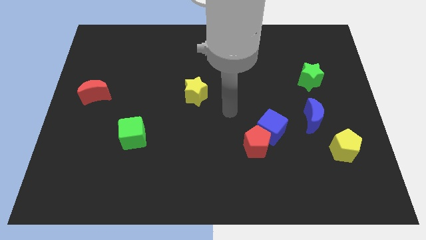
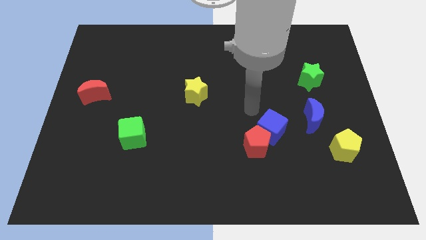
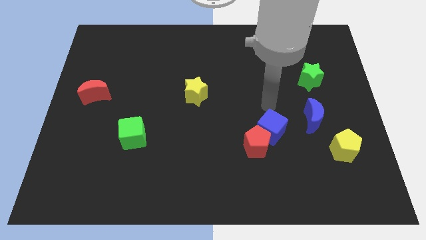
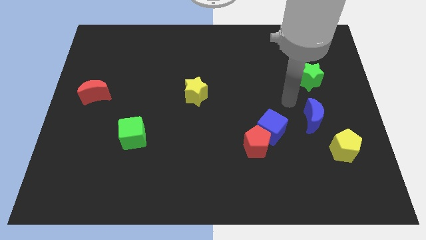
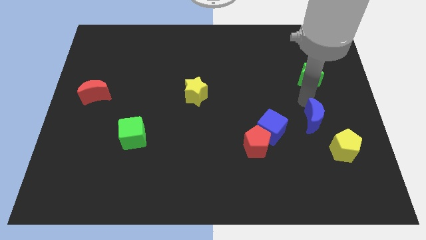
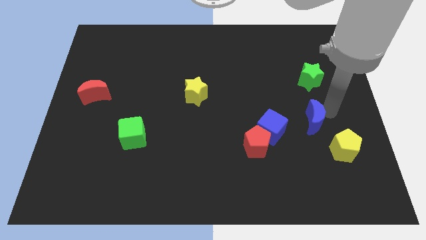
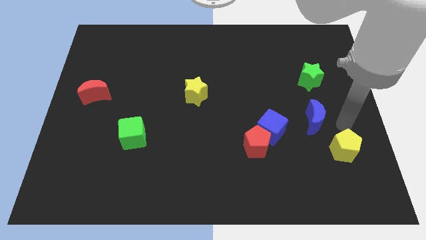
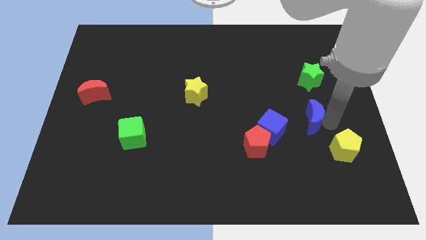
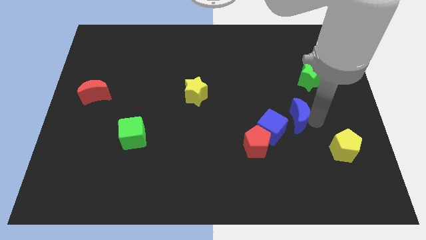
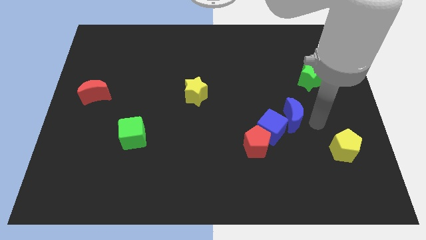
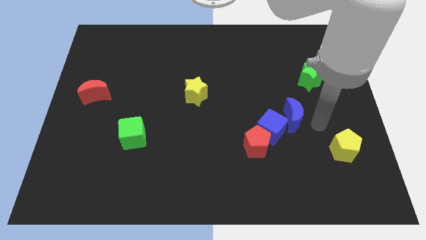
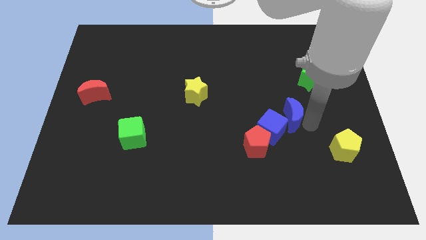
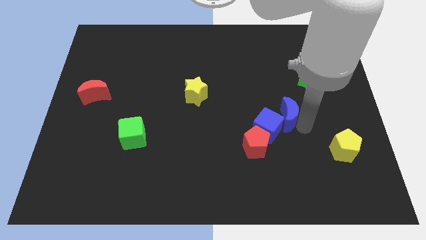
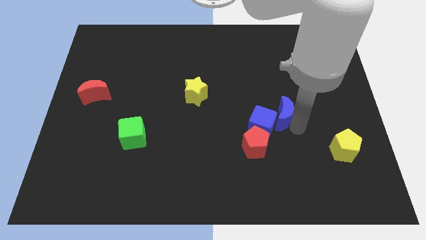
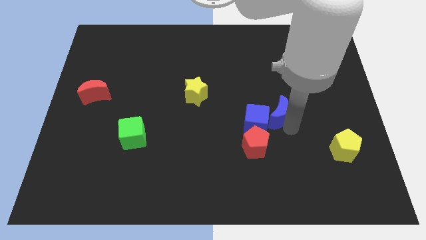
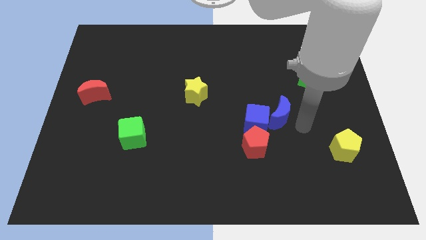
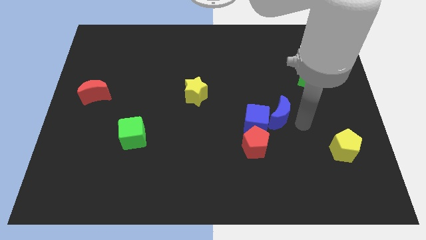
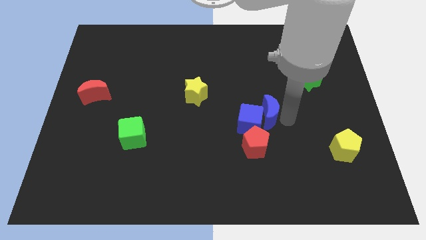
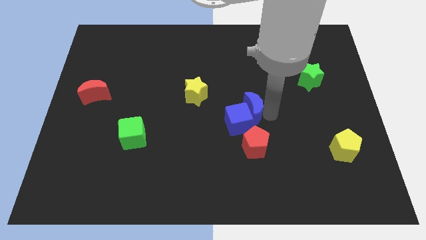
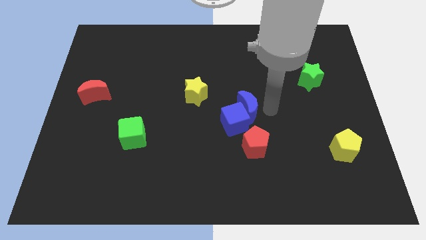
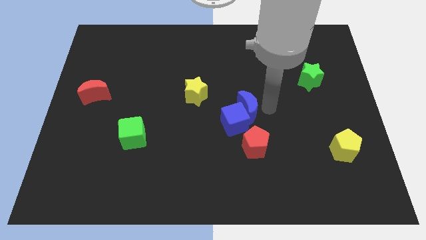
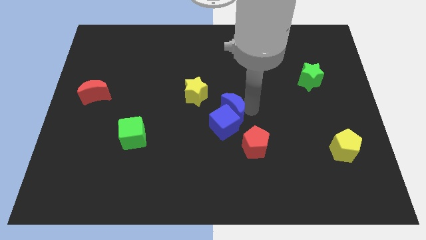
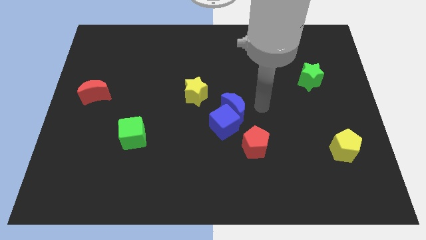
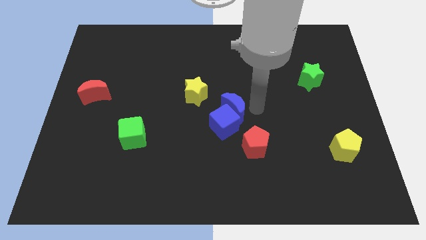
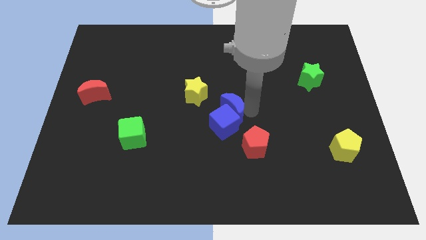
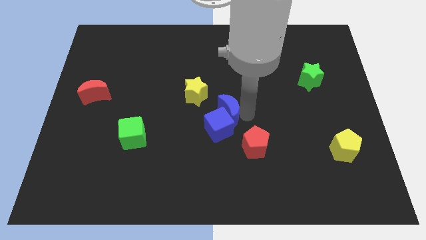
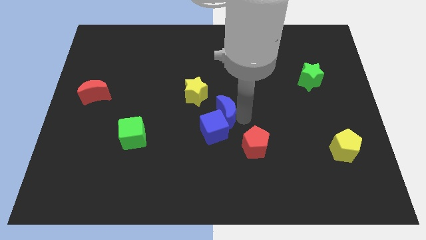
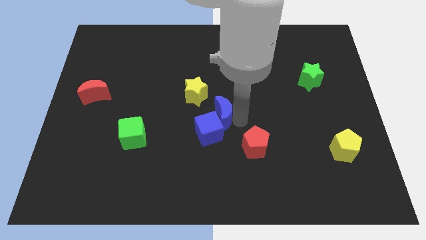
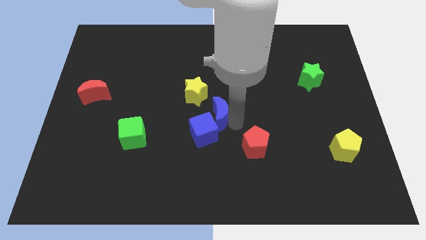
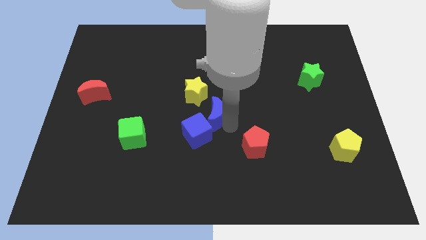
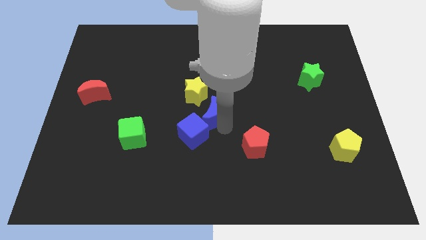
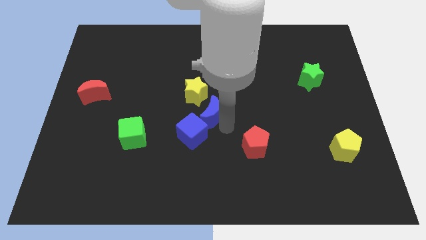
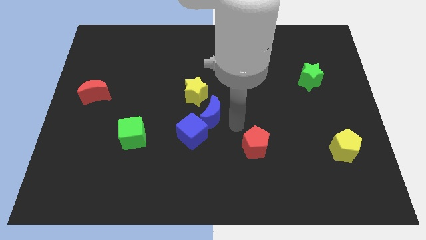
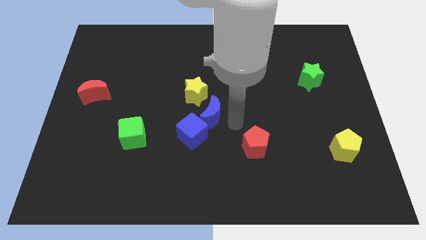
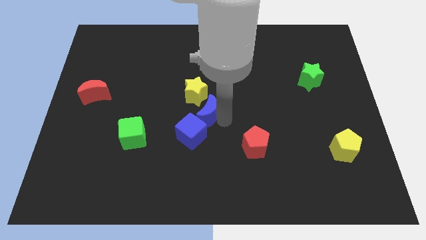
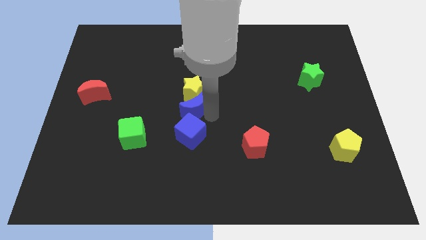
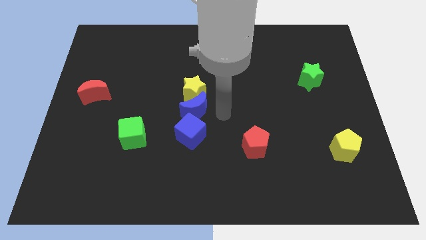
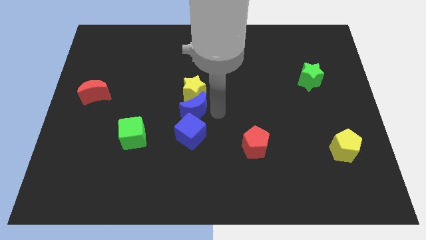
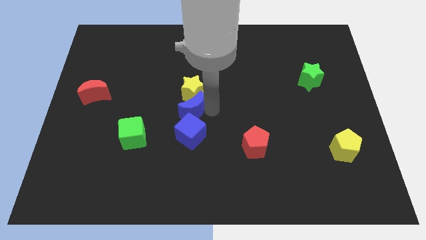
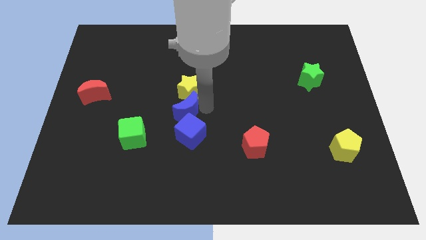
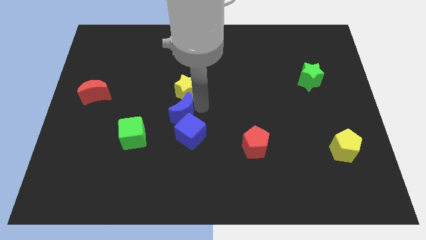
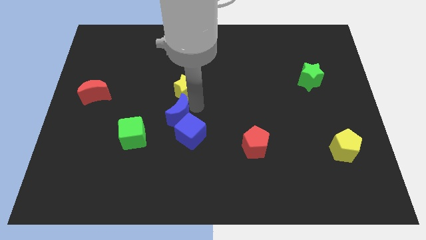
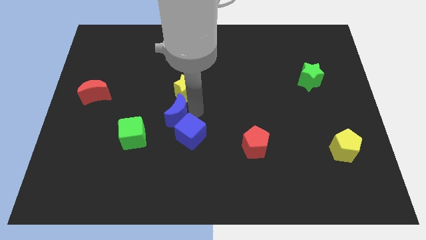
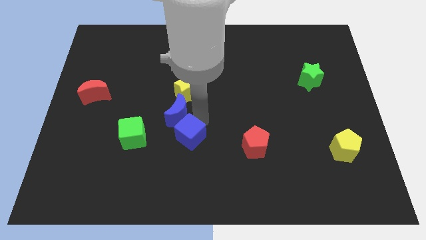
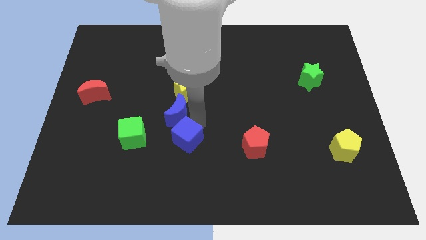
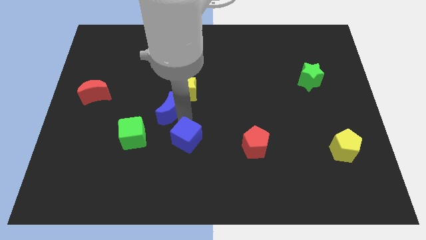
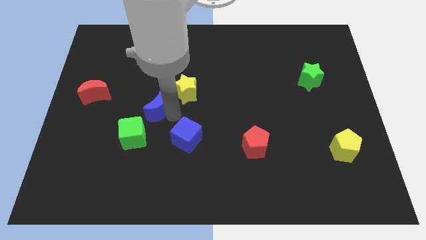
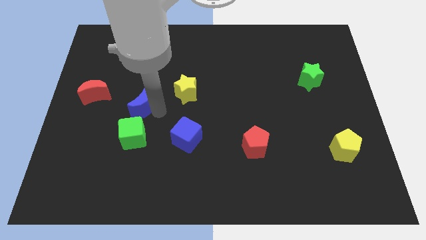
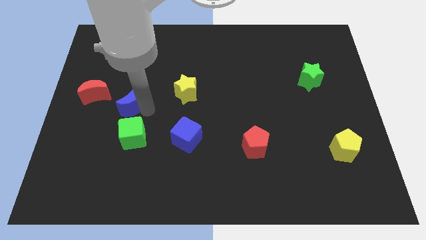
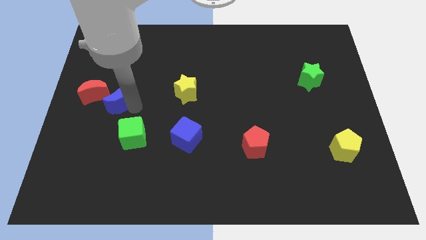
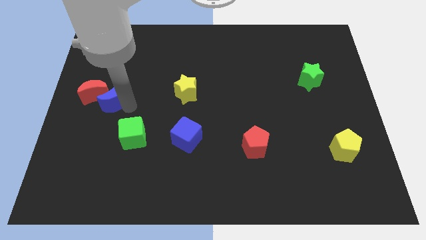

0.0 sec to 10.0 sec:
move the blue moon towards the red moon

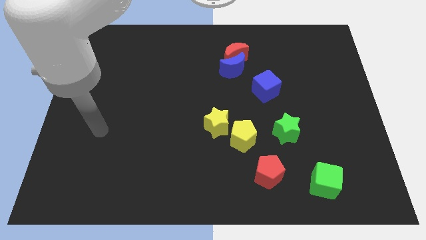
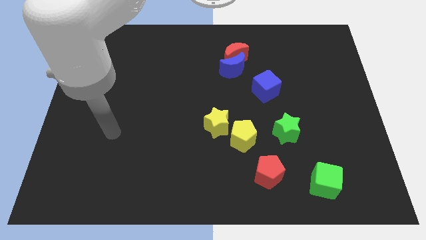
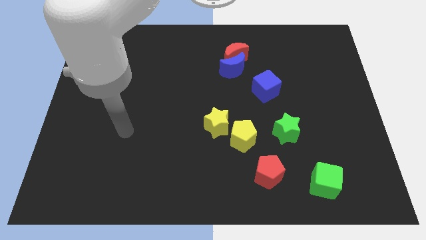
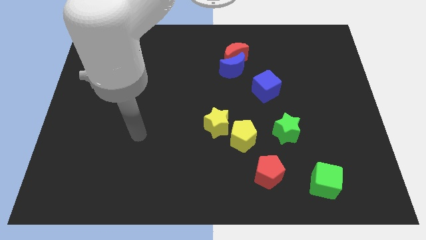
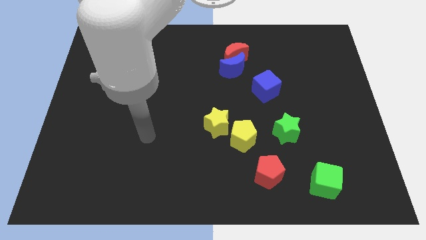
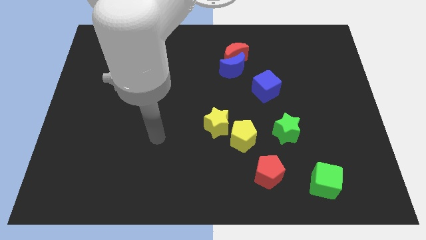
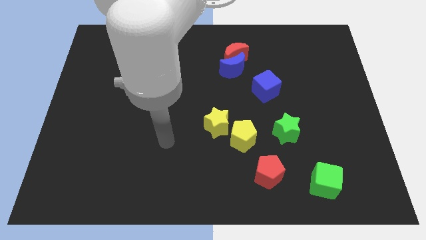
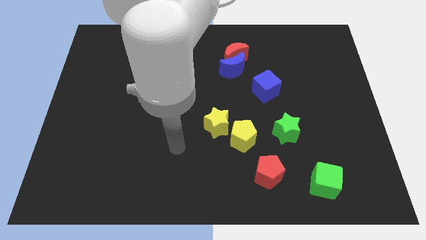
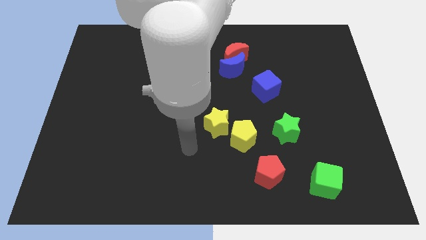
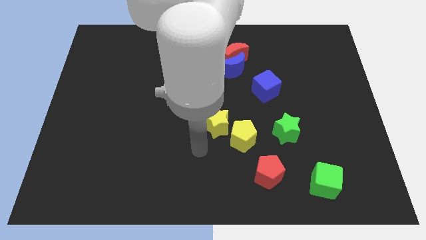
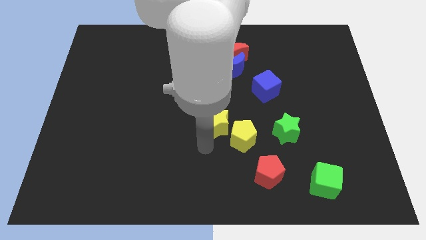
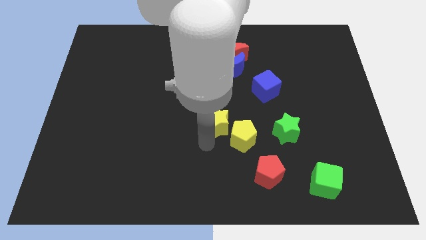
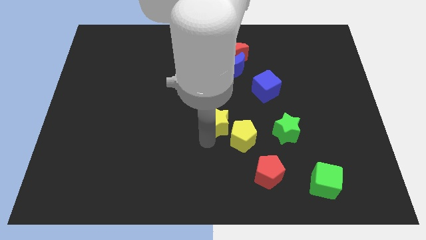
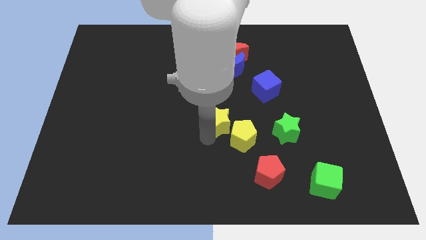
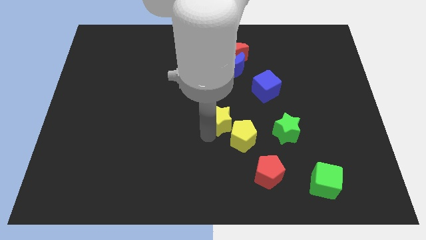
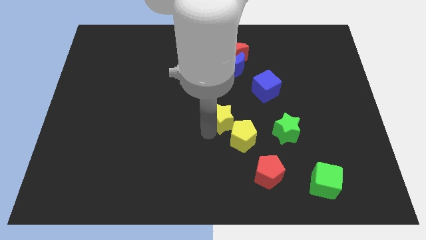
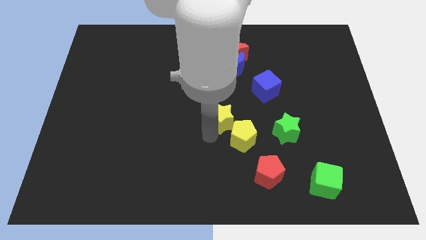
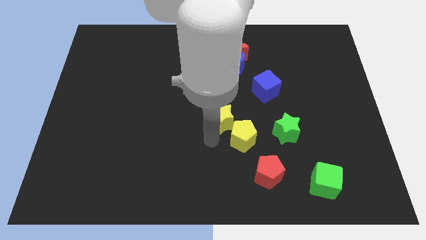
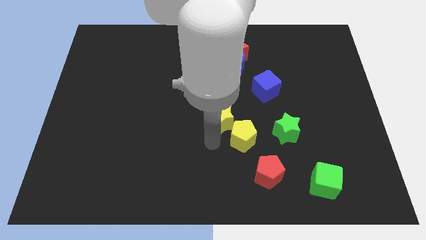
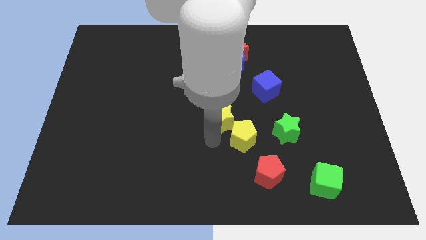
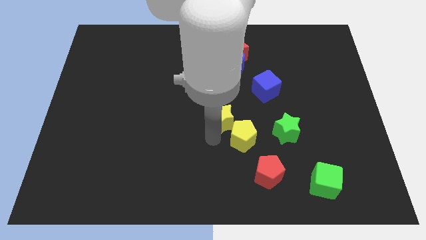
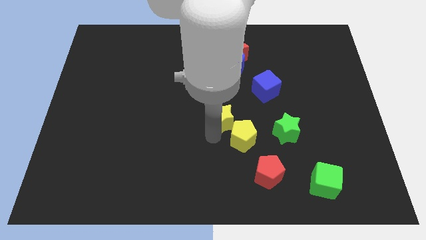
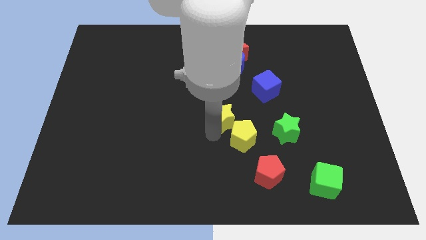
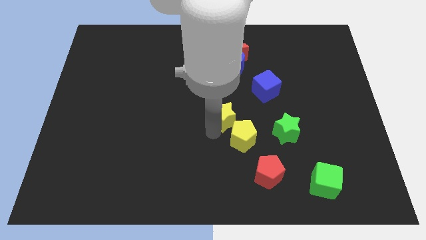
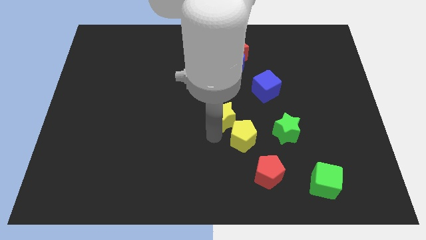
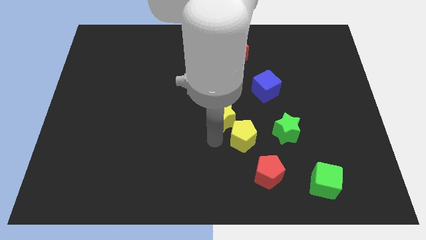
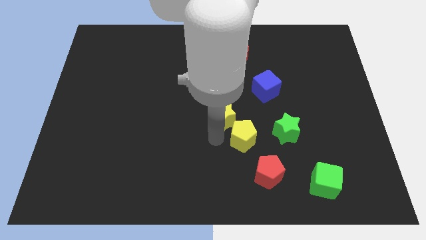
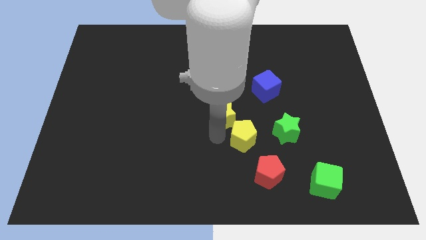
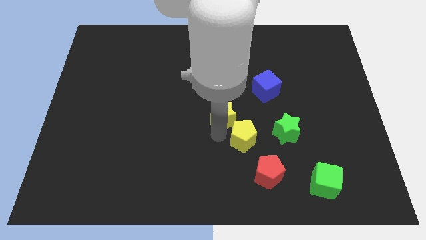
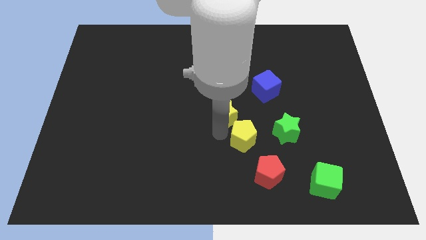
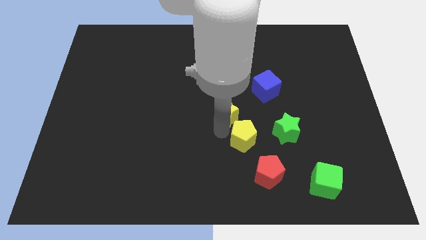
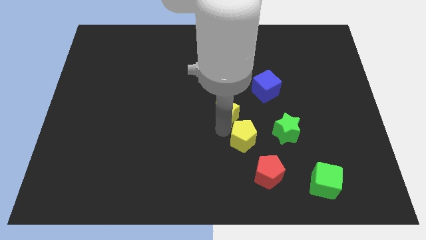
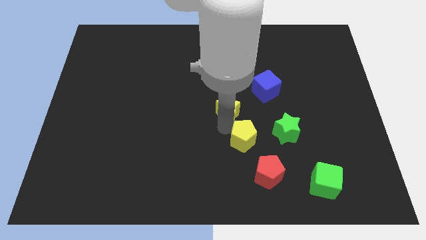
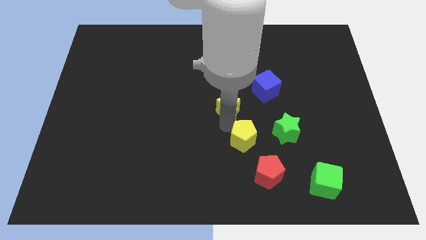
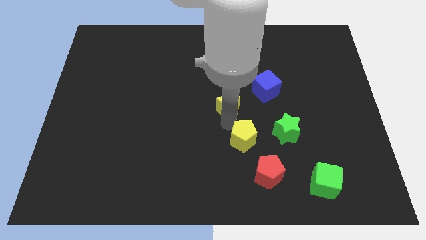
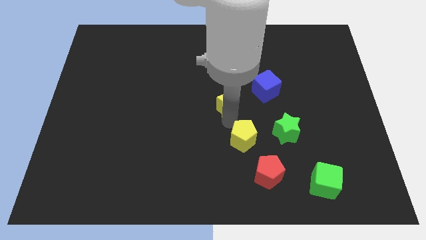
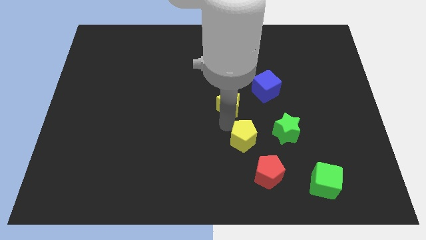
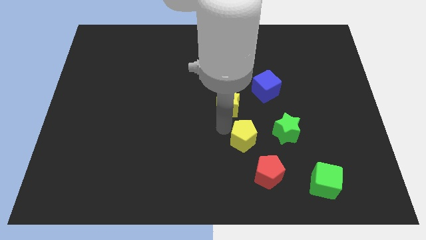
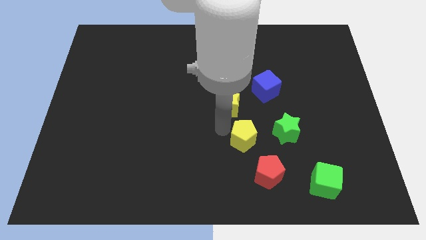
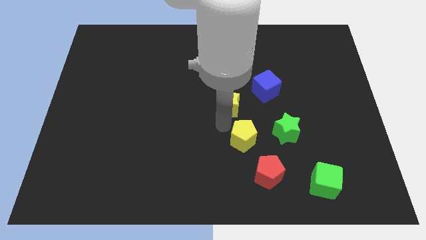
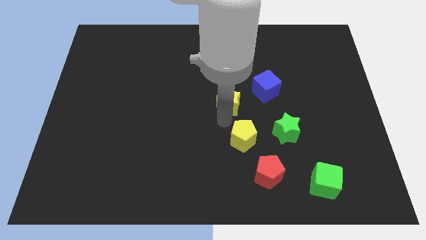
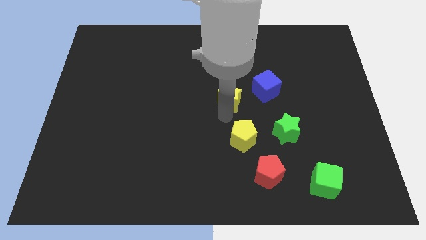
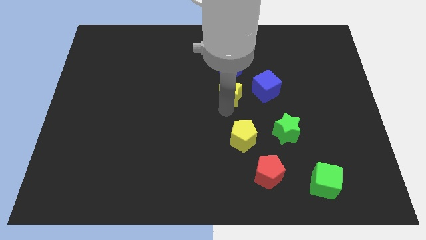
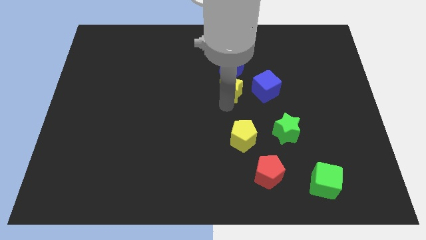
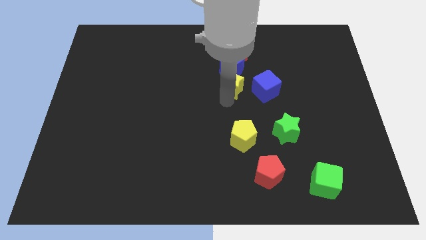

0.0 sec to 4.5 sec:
put the yellow star towards the blue moon
